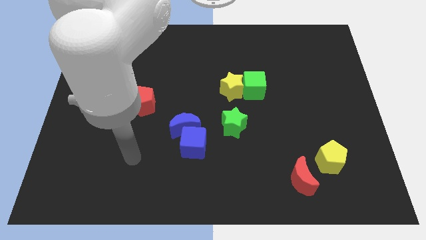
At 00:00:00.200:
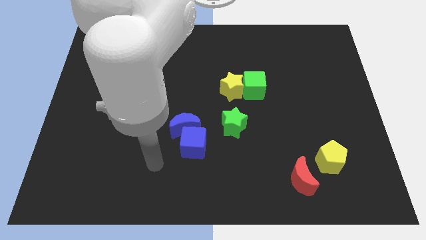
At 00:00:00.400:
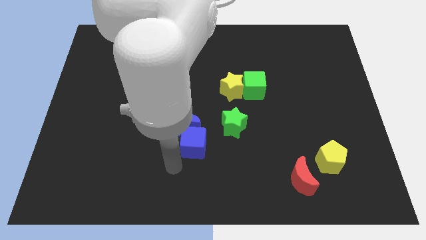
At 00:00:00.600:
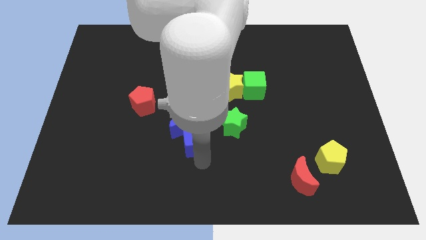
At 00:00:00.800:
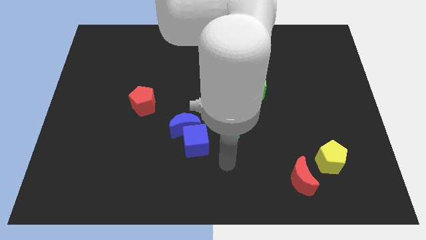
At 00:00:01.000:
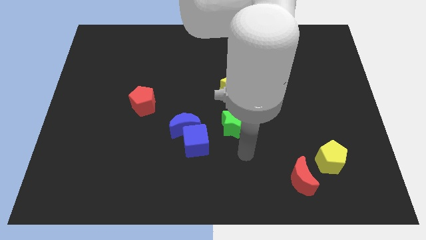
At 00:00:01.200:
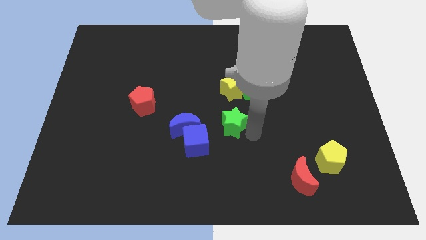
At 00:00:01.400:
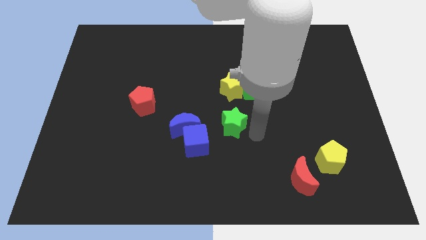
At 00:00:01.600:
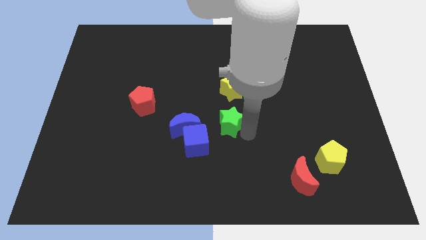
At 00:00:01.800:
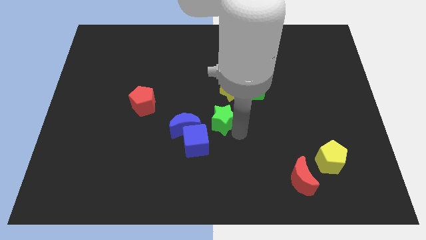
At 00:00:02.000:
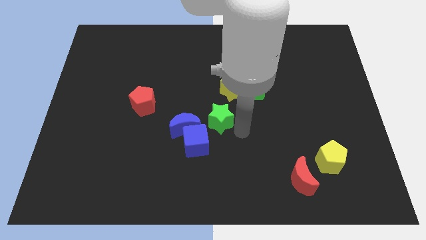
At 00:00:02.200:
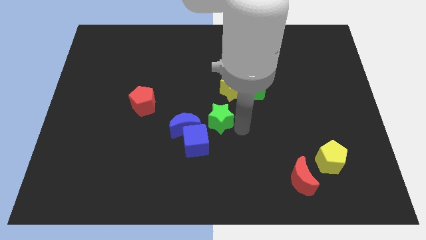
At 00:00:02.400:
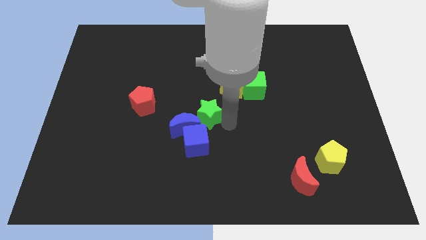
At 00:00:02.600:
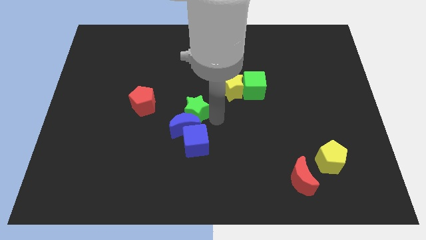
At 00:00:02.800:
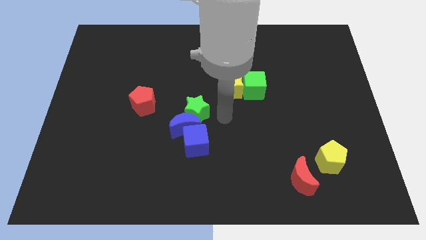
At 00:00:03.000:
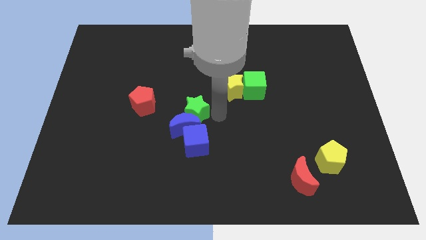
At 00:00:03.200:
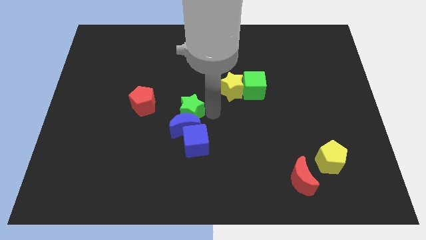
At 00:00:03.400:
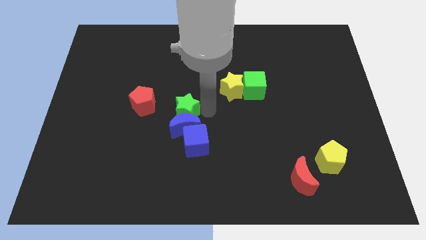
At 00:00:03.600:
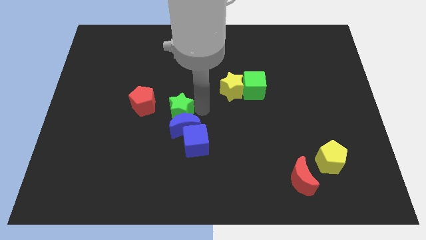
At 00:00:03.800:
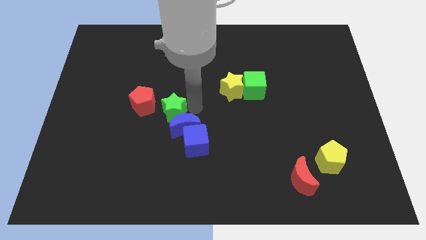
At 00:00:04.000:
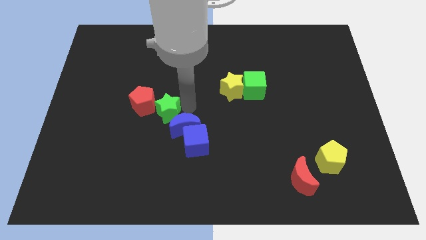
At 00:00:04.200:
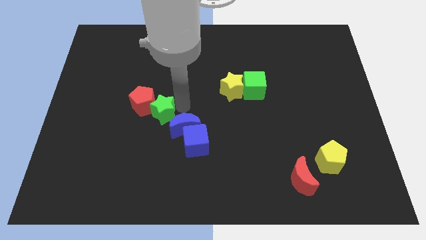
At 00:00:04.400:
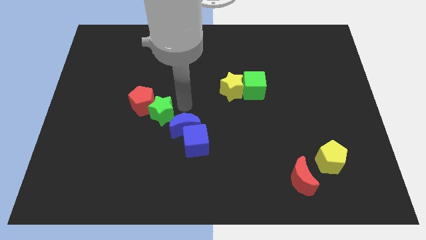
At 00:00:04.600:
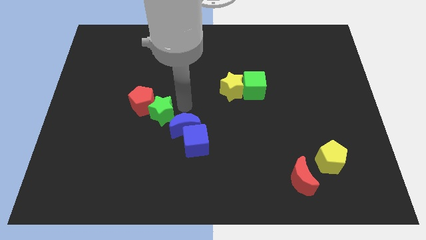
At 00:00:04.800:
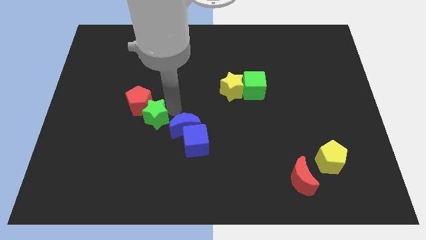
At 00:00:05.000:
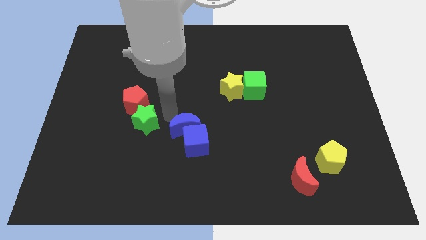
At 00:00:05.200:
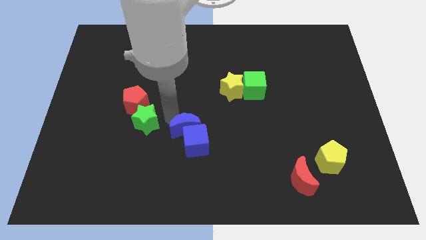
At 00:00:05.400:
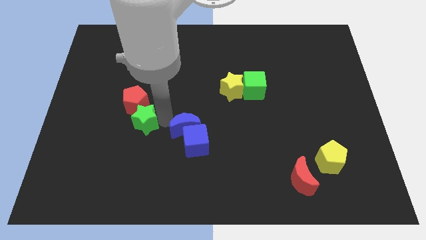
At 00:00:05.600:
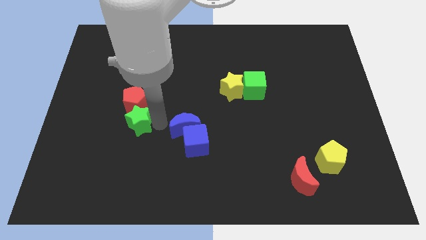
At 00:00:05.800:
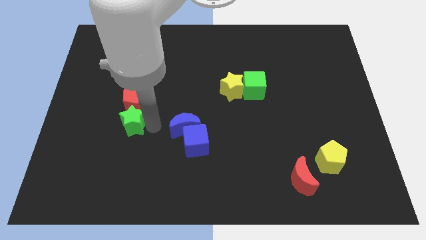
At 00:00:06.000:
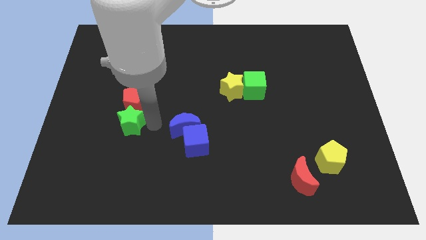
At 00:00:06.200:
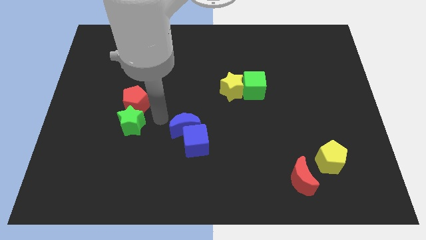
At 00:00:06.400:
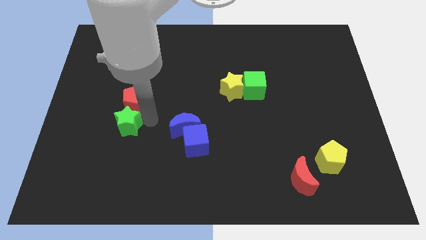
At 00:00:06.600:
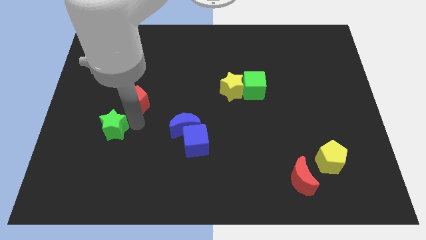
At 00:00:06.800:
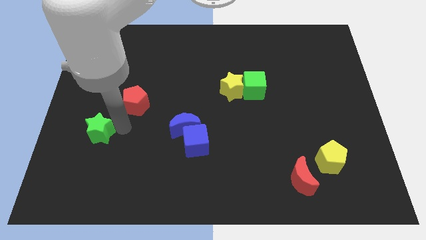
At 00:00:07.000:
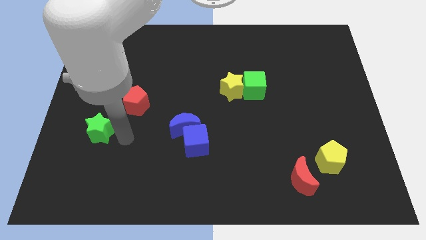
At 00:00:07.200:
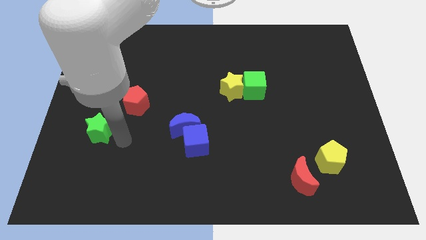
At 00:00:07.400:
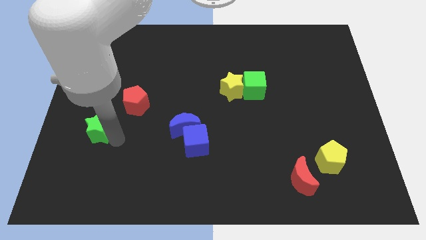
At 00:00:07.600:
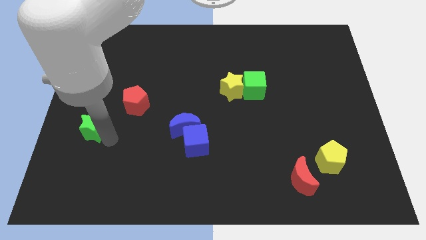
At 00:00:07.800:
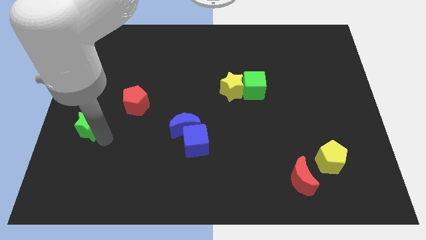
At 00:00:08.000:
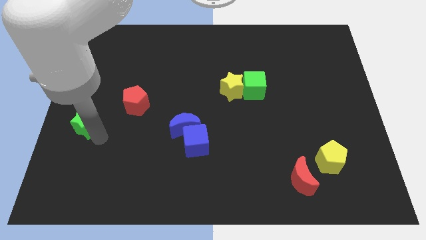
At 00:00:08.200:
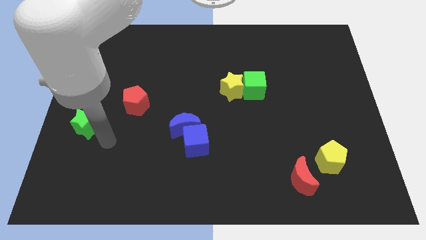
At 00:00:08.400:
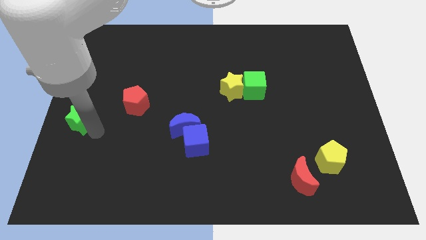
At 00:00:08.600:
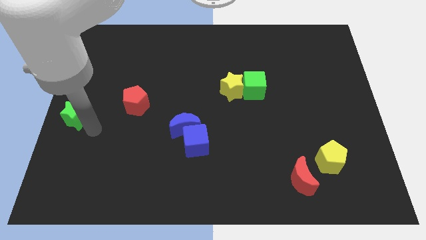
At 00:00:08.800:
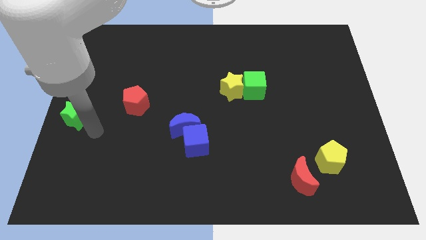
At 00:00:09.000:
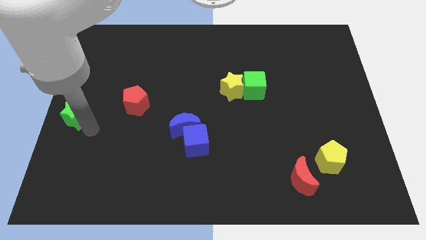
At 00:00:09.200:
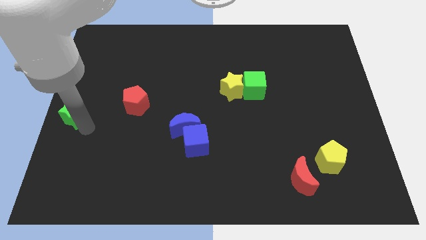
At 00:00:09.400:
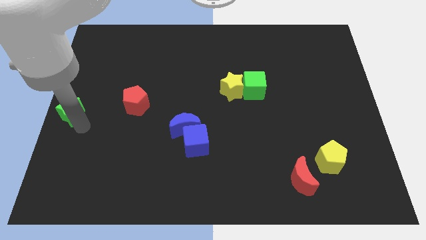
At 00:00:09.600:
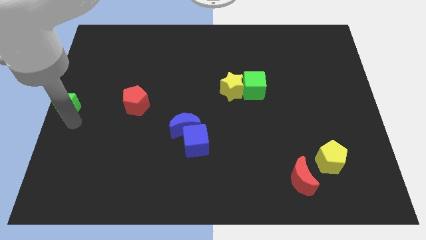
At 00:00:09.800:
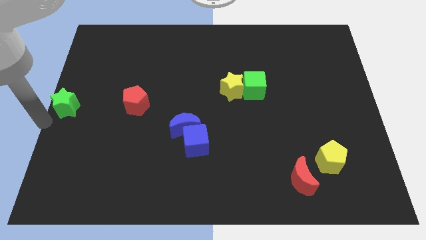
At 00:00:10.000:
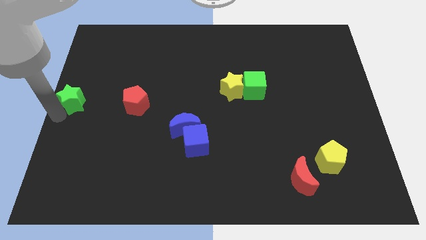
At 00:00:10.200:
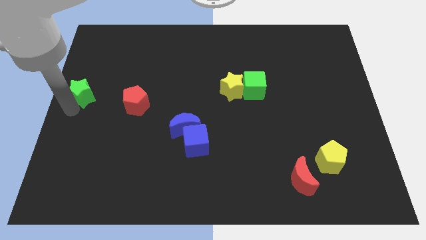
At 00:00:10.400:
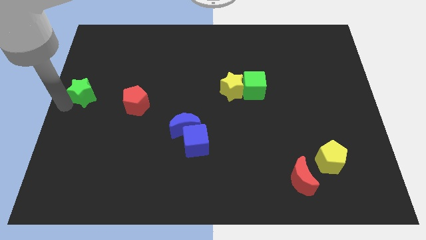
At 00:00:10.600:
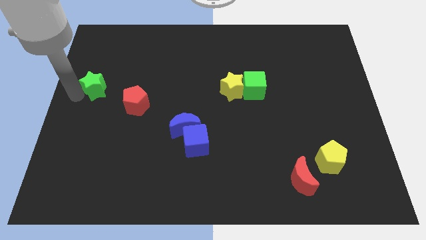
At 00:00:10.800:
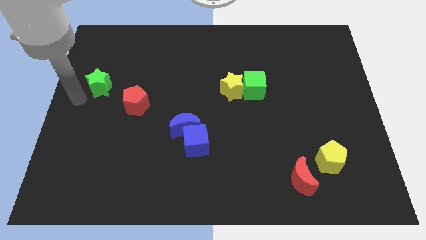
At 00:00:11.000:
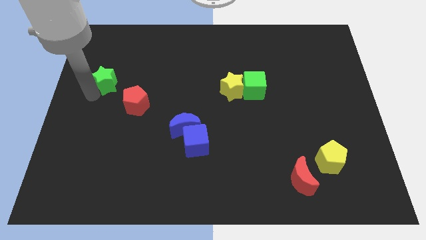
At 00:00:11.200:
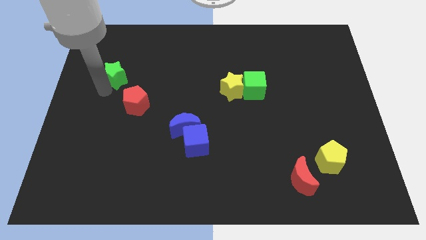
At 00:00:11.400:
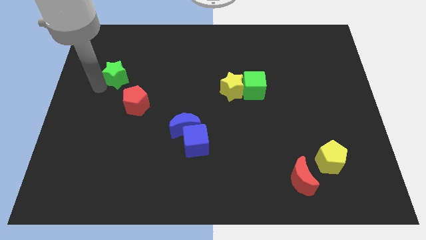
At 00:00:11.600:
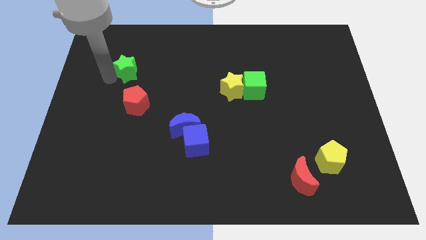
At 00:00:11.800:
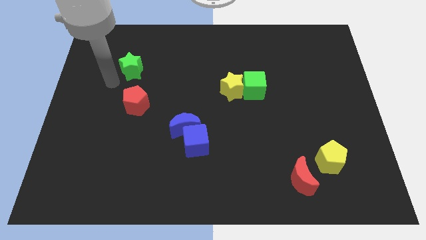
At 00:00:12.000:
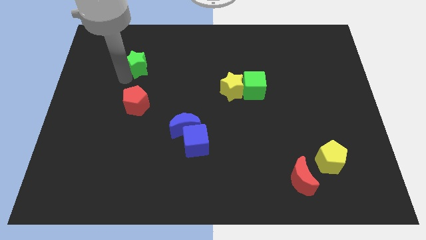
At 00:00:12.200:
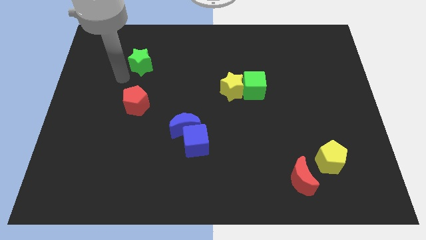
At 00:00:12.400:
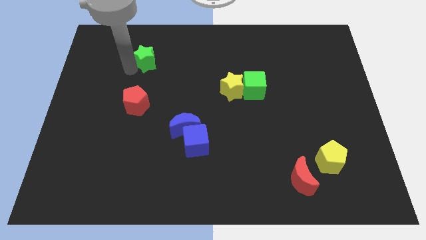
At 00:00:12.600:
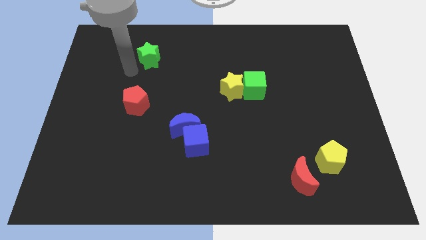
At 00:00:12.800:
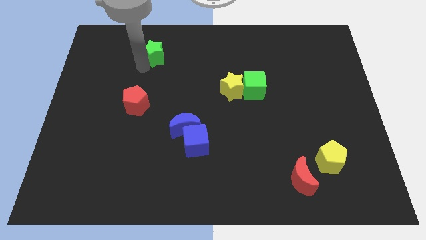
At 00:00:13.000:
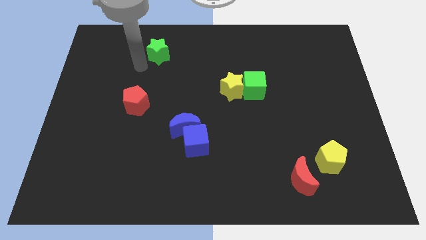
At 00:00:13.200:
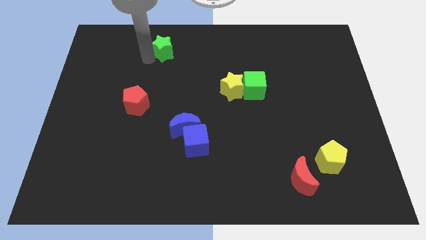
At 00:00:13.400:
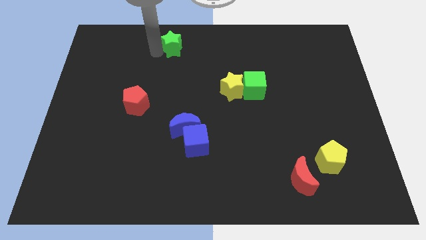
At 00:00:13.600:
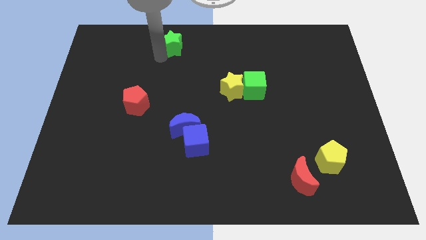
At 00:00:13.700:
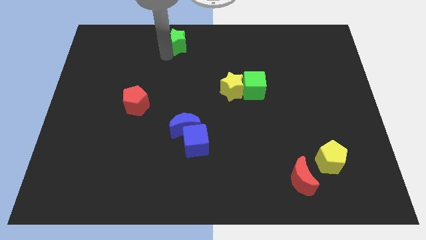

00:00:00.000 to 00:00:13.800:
move the green star to the top side
